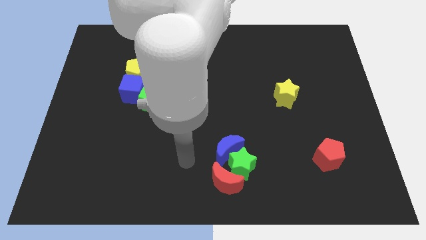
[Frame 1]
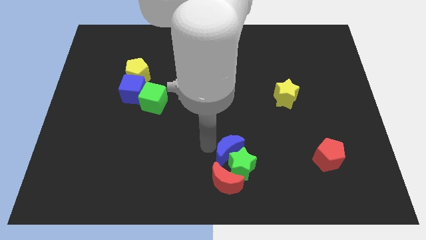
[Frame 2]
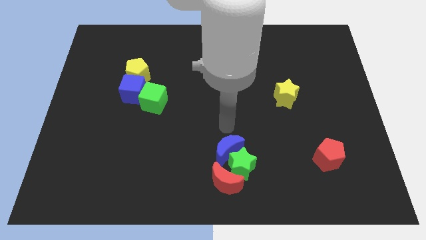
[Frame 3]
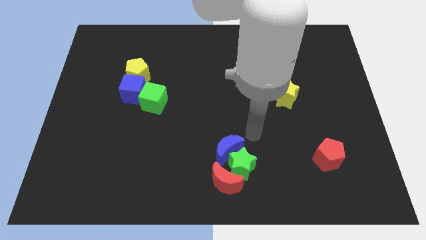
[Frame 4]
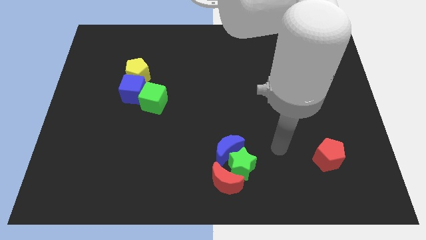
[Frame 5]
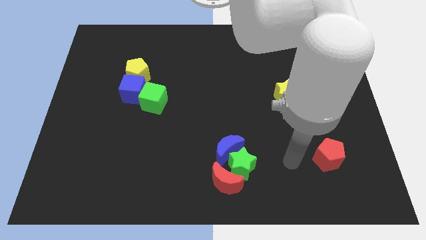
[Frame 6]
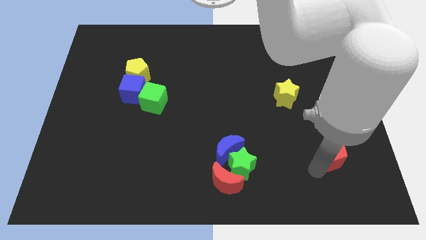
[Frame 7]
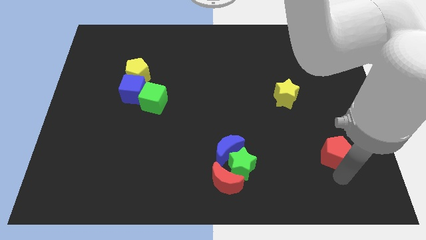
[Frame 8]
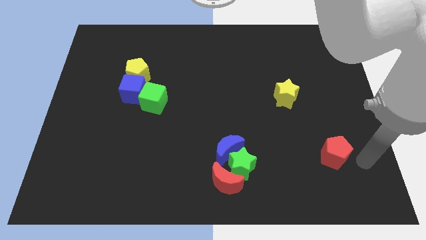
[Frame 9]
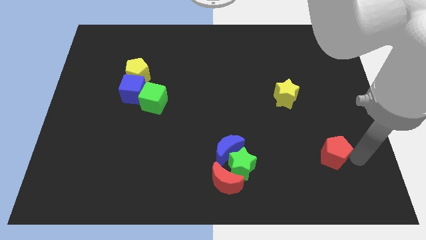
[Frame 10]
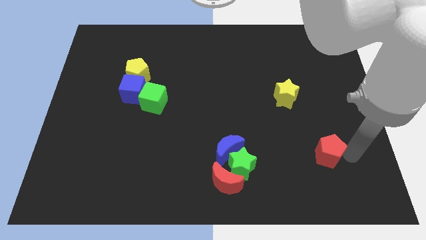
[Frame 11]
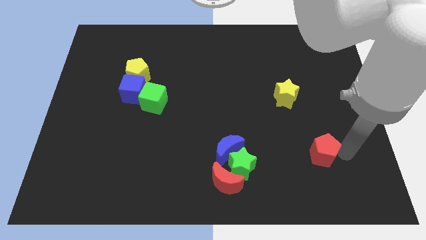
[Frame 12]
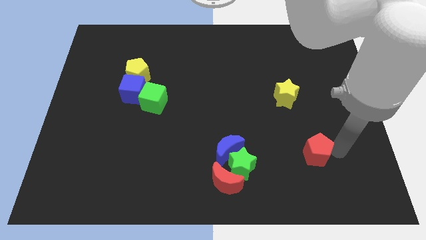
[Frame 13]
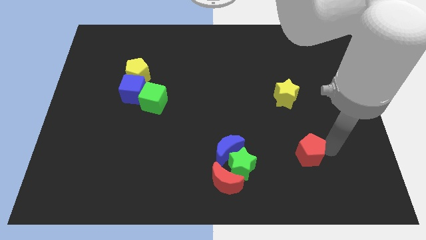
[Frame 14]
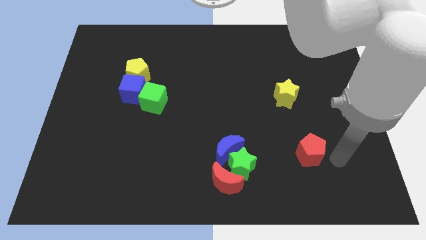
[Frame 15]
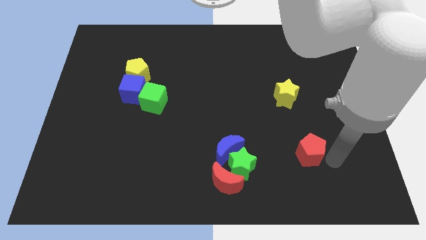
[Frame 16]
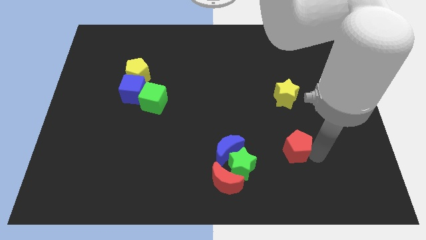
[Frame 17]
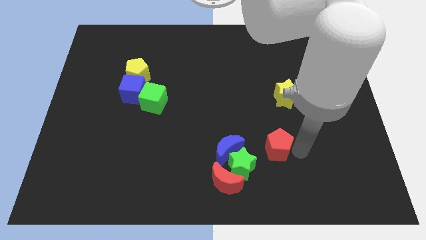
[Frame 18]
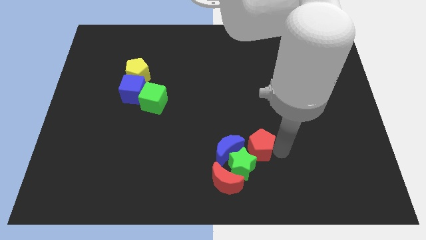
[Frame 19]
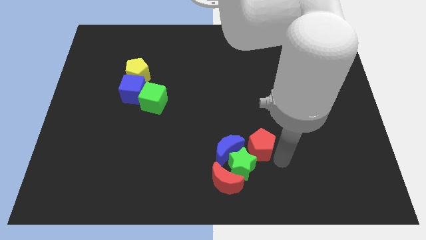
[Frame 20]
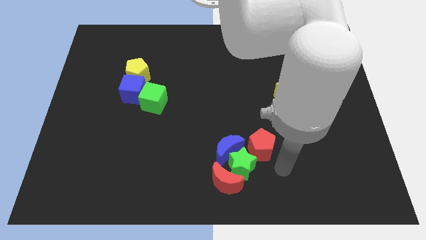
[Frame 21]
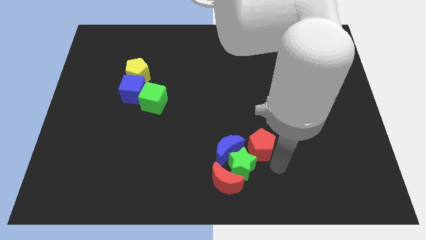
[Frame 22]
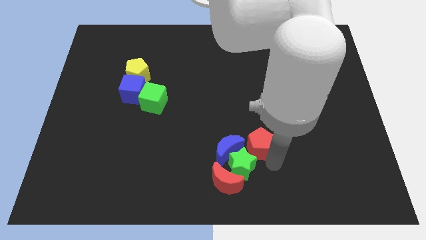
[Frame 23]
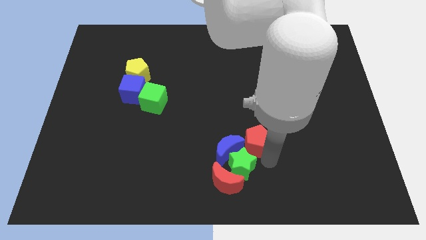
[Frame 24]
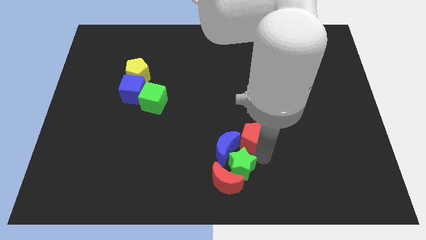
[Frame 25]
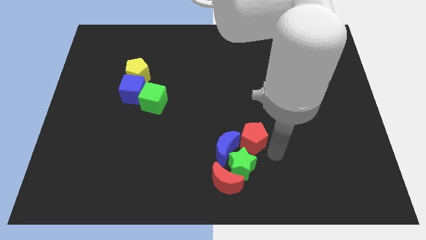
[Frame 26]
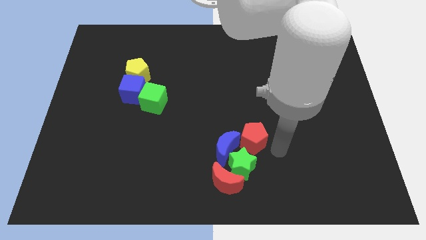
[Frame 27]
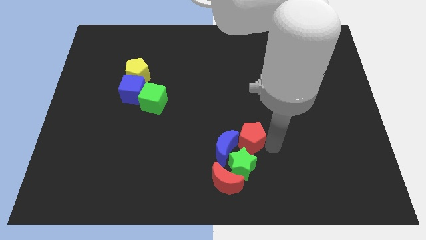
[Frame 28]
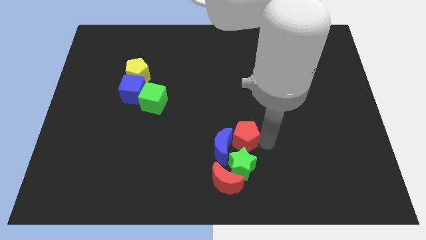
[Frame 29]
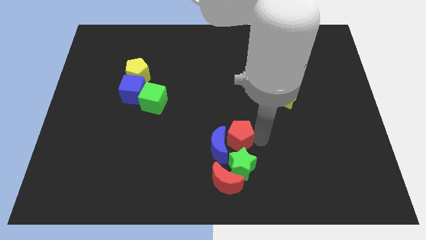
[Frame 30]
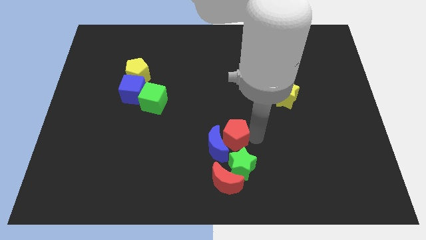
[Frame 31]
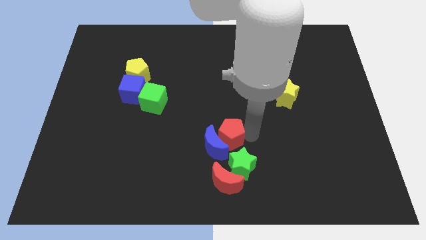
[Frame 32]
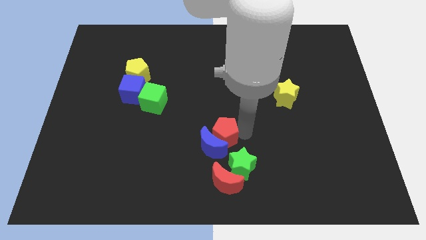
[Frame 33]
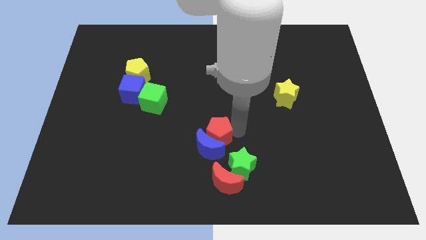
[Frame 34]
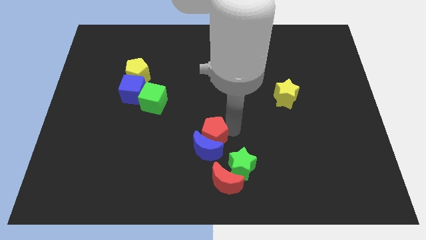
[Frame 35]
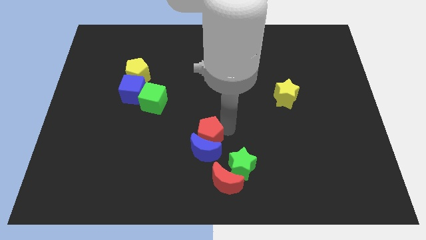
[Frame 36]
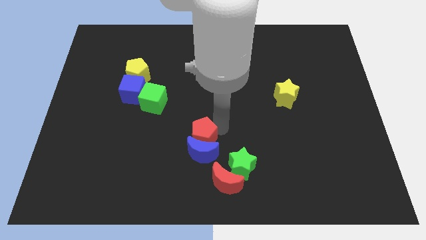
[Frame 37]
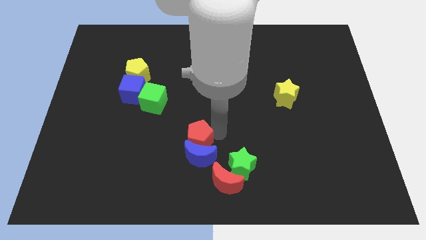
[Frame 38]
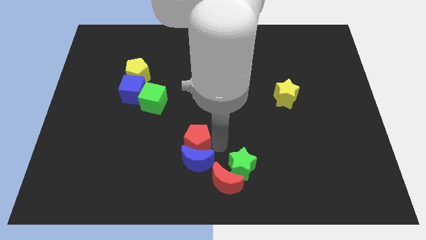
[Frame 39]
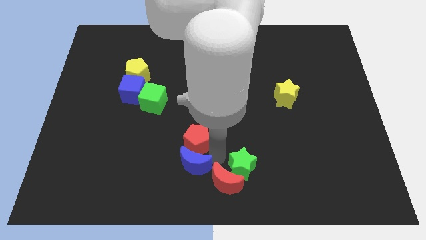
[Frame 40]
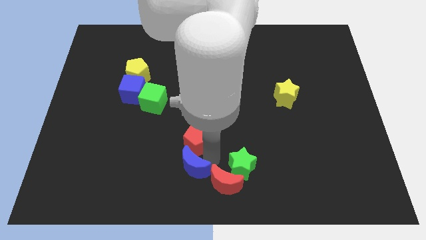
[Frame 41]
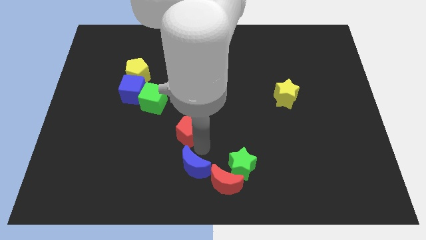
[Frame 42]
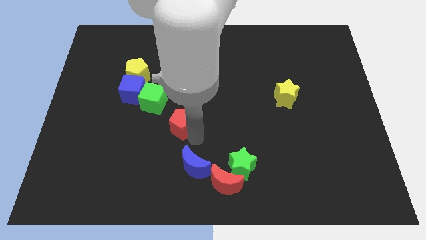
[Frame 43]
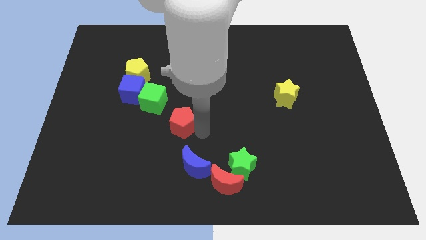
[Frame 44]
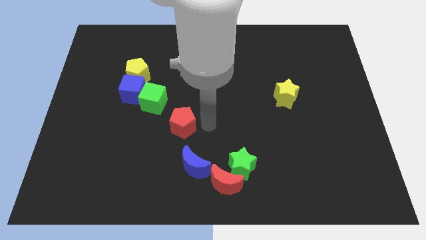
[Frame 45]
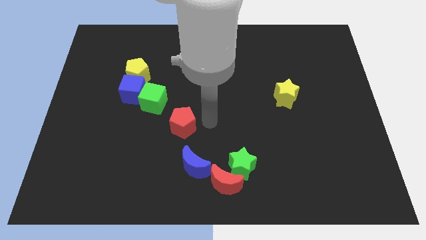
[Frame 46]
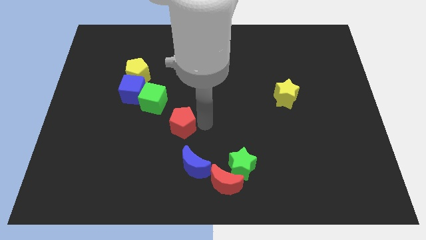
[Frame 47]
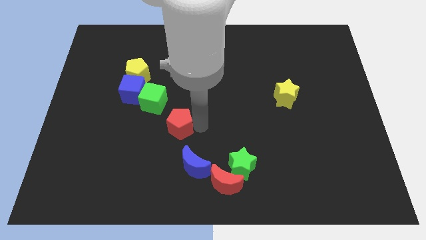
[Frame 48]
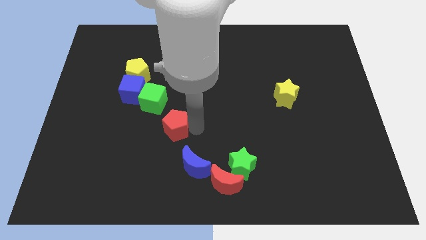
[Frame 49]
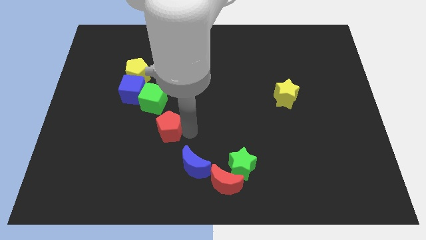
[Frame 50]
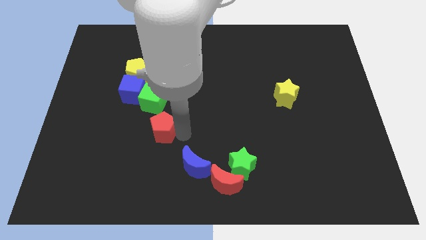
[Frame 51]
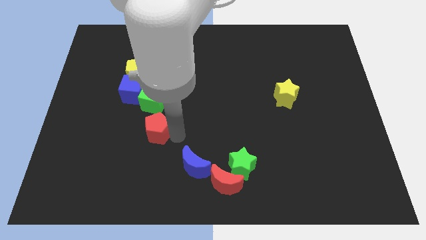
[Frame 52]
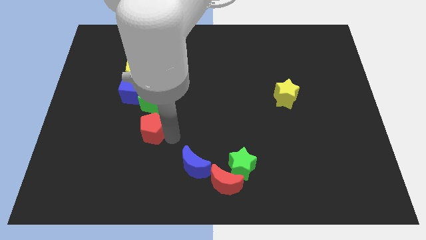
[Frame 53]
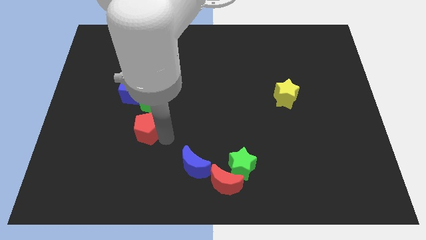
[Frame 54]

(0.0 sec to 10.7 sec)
slide the red pentagon to the bottom side of the blue cube

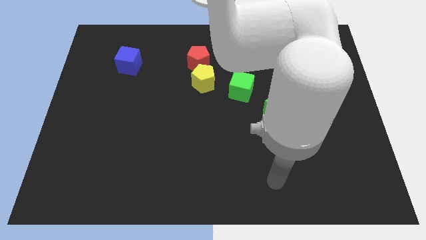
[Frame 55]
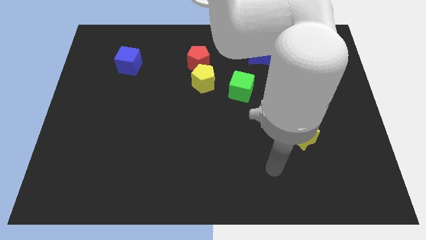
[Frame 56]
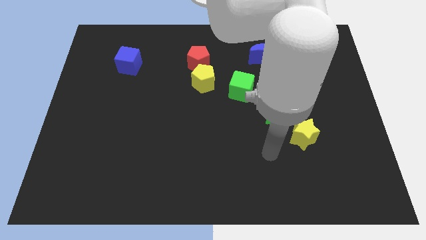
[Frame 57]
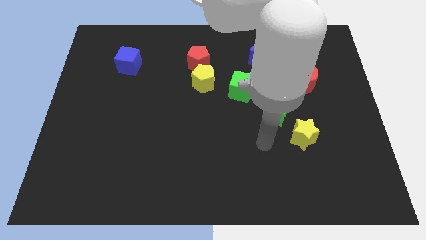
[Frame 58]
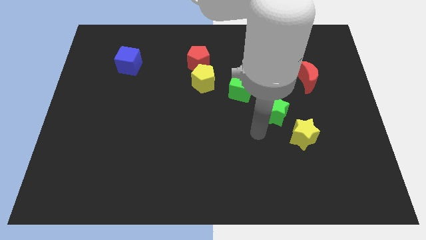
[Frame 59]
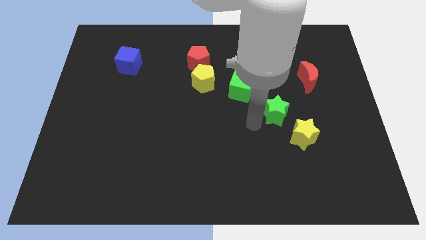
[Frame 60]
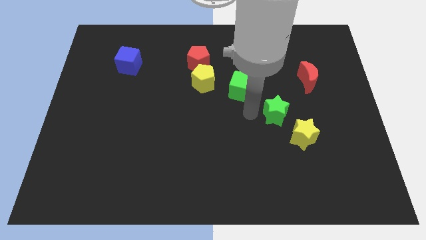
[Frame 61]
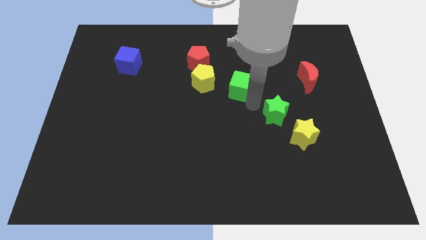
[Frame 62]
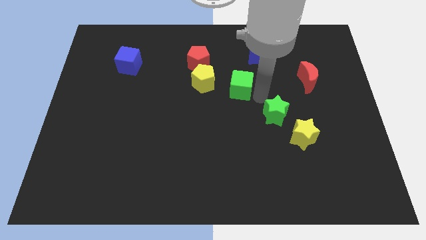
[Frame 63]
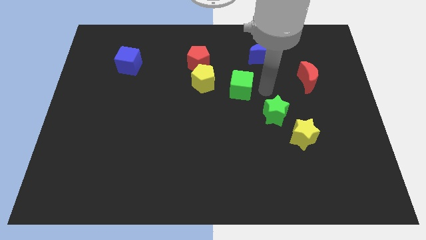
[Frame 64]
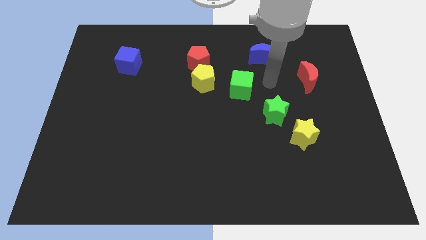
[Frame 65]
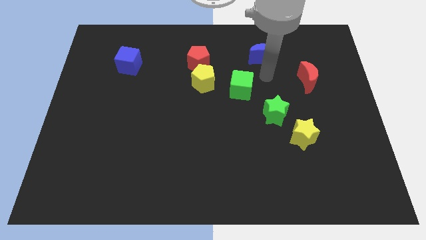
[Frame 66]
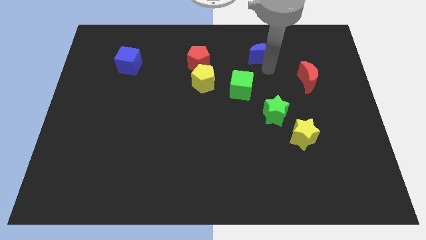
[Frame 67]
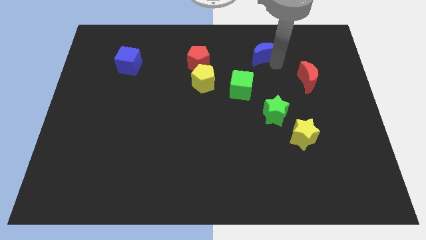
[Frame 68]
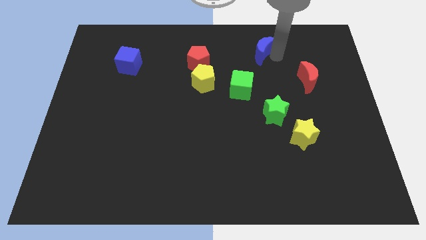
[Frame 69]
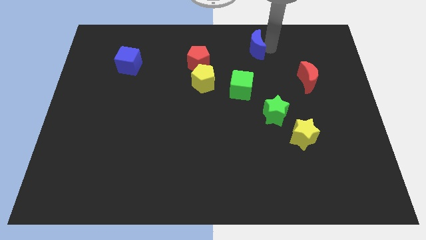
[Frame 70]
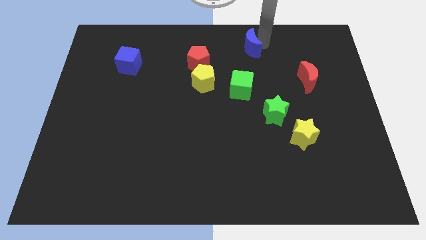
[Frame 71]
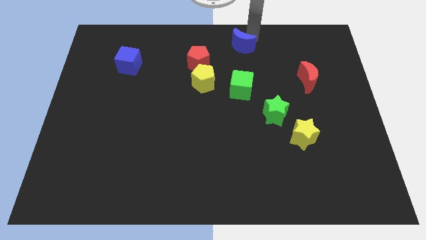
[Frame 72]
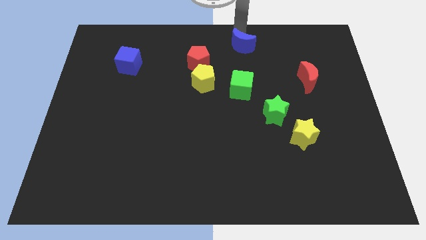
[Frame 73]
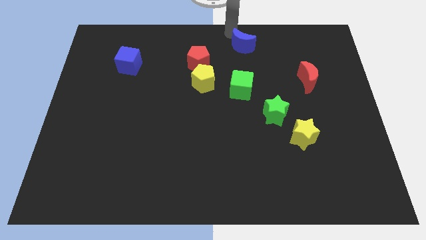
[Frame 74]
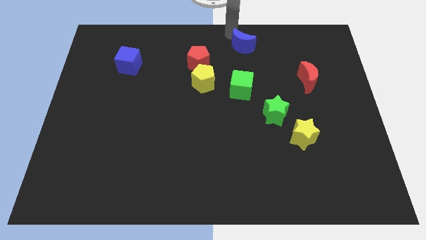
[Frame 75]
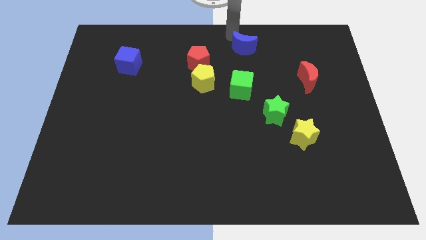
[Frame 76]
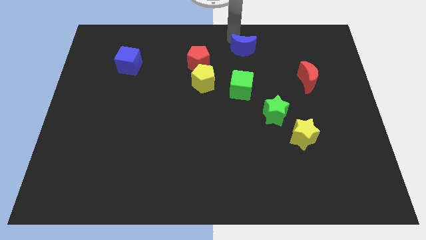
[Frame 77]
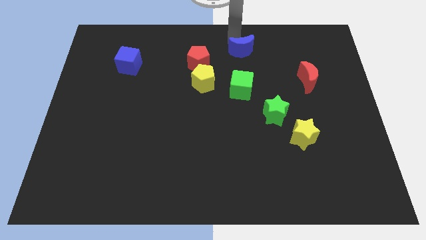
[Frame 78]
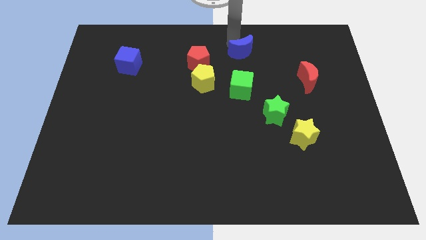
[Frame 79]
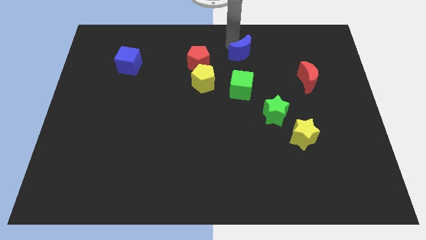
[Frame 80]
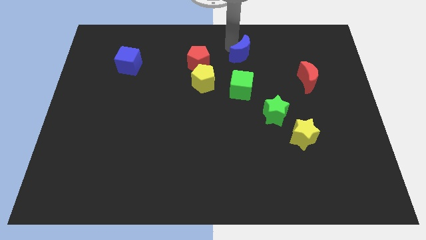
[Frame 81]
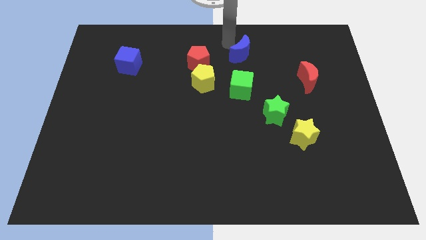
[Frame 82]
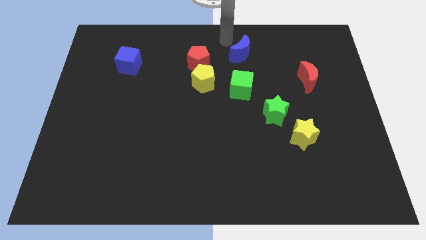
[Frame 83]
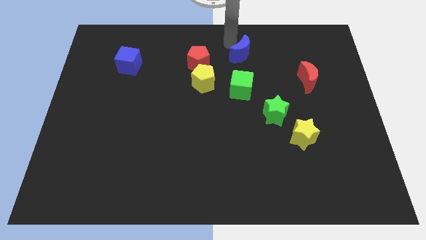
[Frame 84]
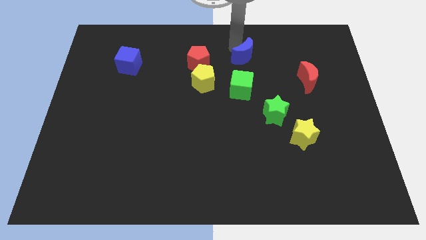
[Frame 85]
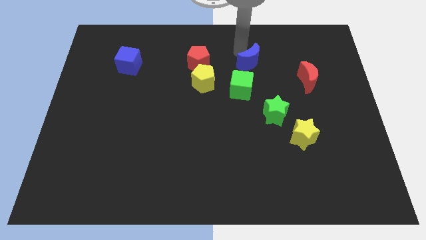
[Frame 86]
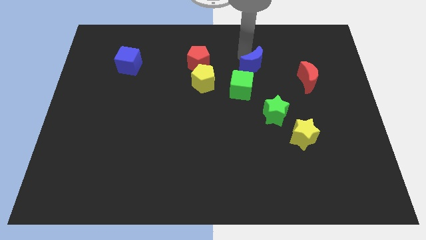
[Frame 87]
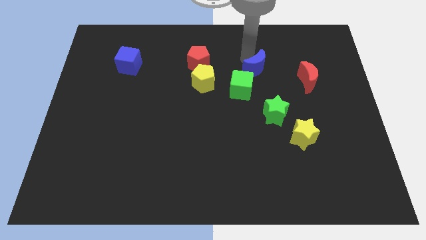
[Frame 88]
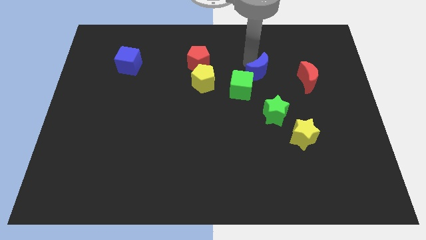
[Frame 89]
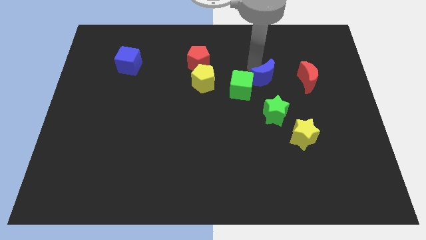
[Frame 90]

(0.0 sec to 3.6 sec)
put the blue moon just right of the green cube
